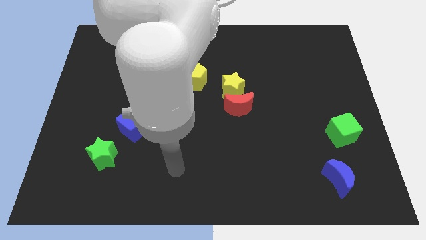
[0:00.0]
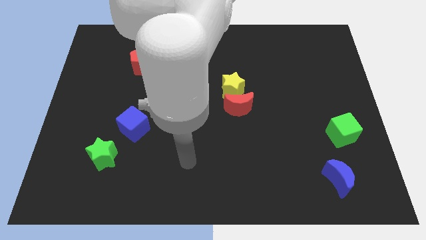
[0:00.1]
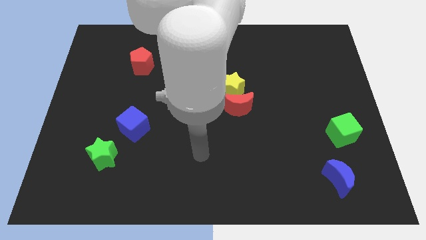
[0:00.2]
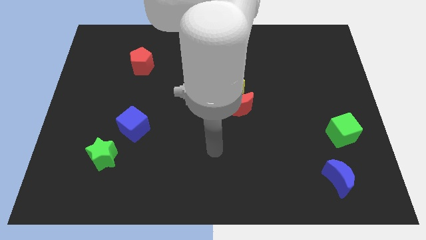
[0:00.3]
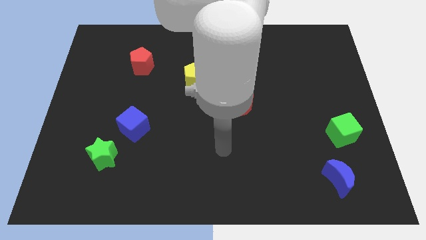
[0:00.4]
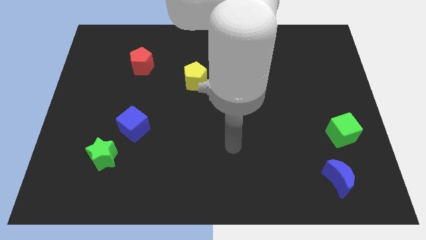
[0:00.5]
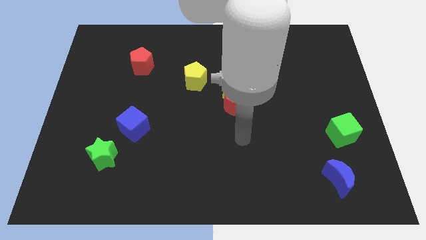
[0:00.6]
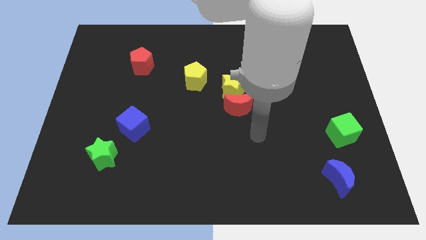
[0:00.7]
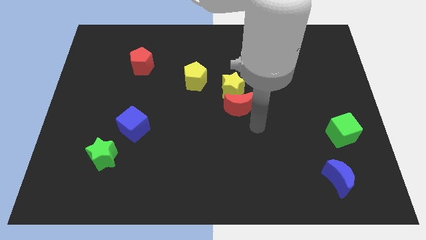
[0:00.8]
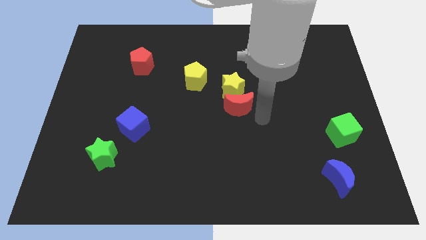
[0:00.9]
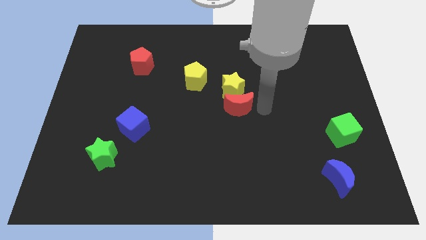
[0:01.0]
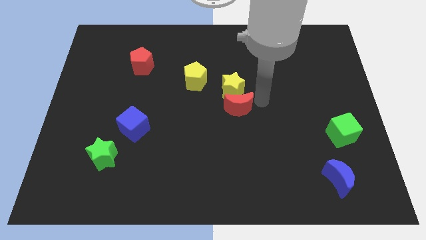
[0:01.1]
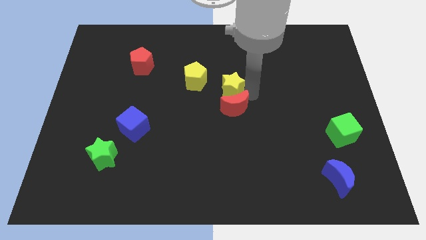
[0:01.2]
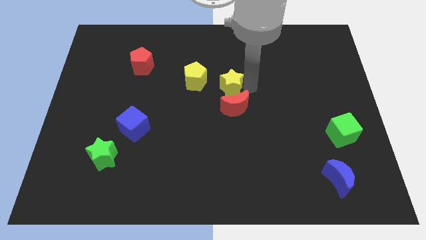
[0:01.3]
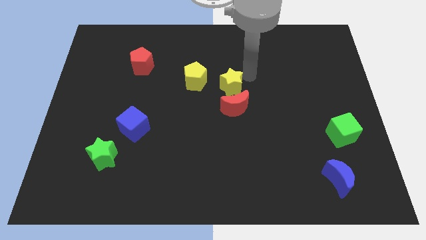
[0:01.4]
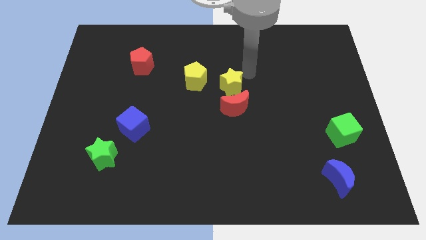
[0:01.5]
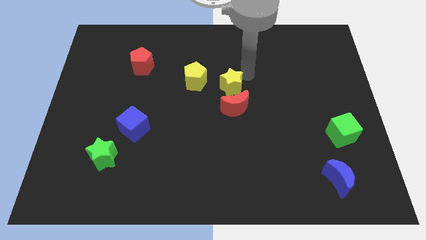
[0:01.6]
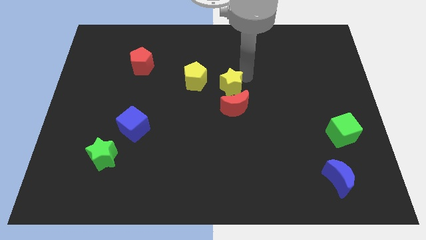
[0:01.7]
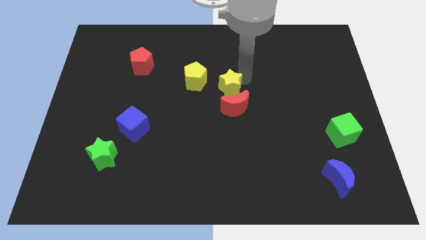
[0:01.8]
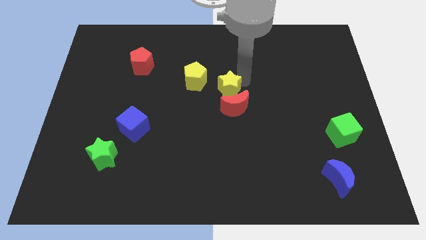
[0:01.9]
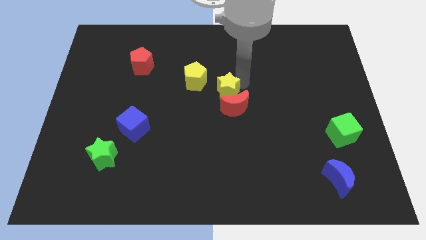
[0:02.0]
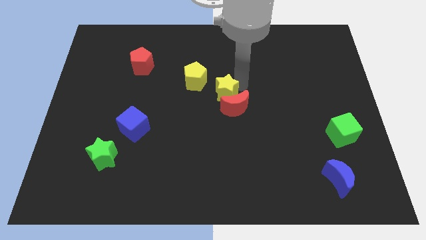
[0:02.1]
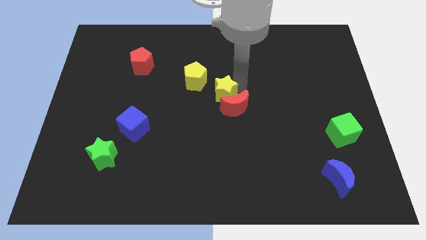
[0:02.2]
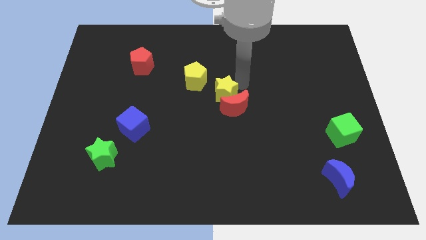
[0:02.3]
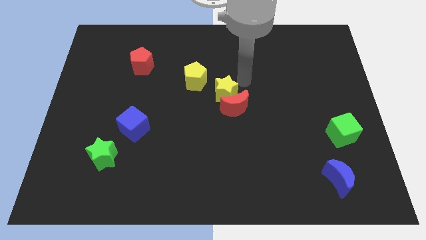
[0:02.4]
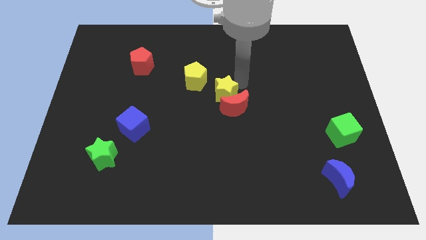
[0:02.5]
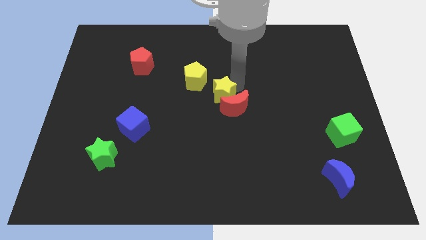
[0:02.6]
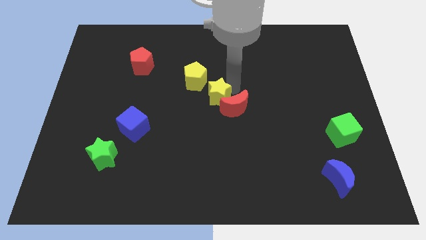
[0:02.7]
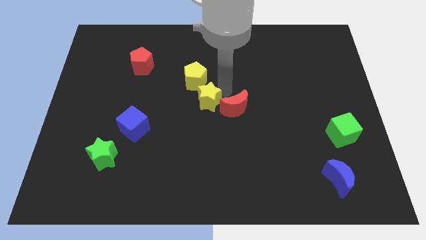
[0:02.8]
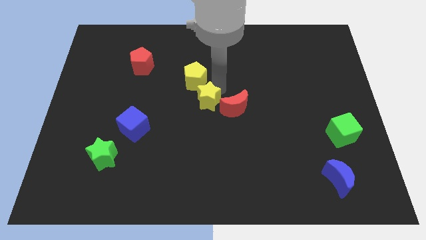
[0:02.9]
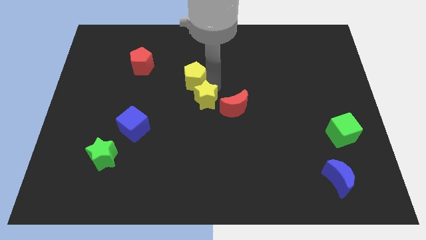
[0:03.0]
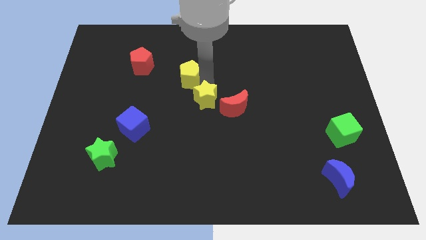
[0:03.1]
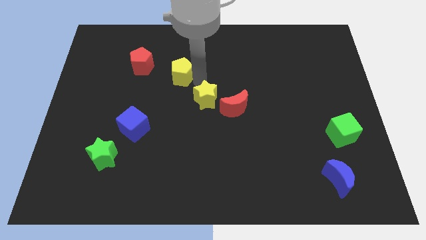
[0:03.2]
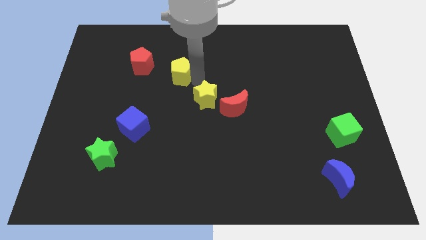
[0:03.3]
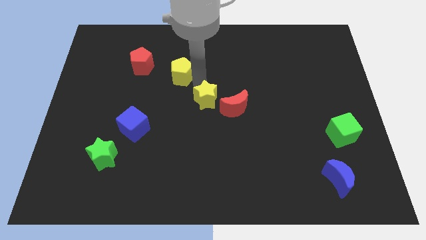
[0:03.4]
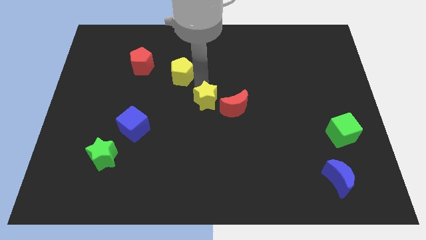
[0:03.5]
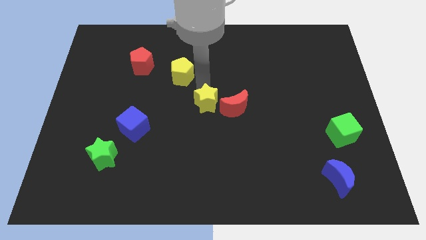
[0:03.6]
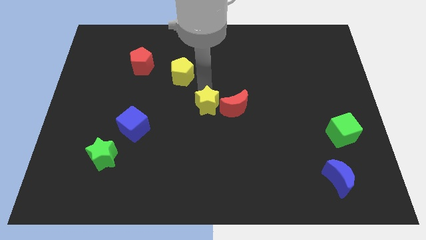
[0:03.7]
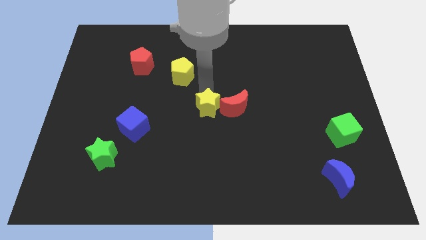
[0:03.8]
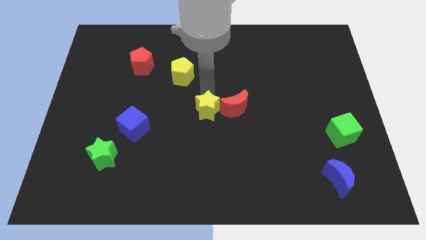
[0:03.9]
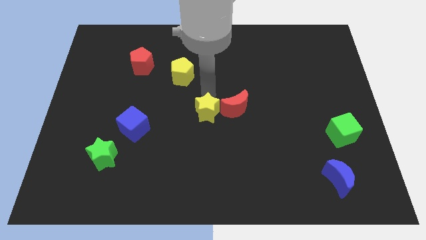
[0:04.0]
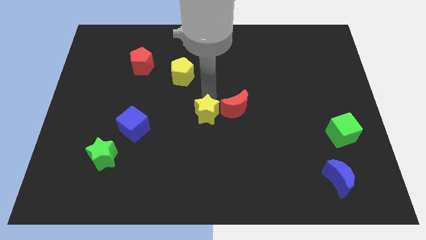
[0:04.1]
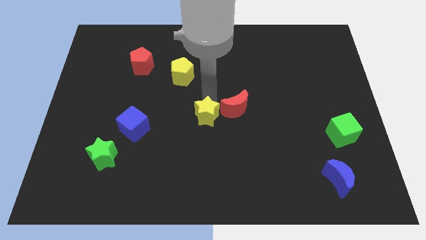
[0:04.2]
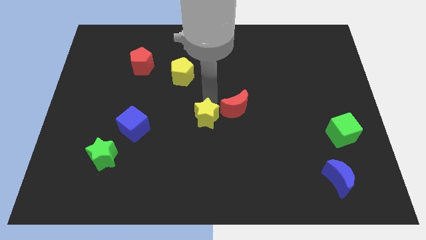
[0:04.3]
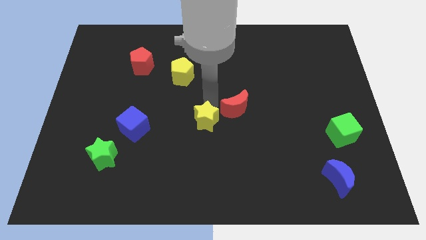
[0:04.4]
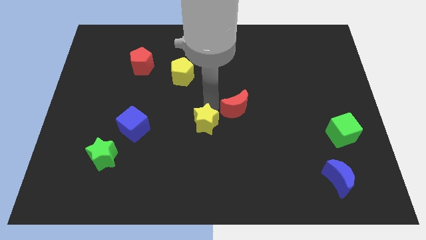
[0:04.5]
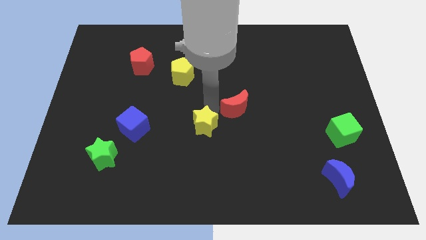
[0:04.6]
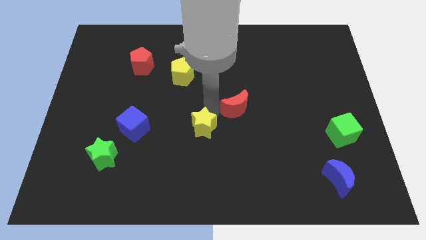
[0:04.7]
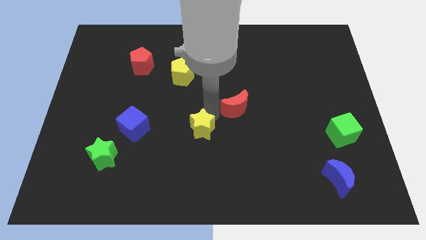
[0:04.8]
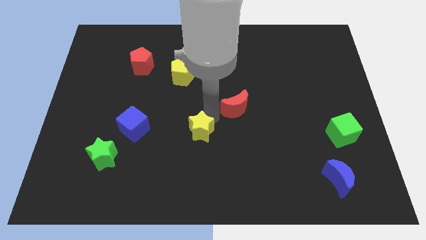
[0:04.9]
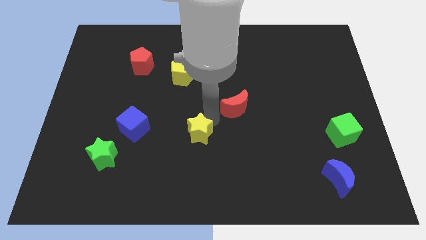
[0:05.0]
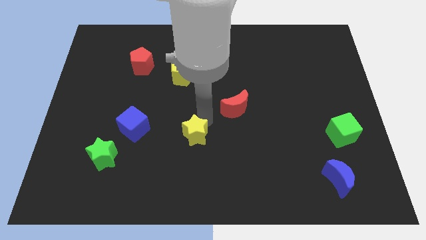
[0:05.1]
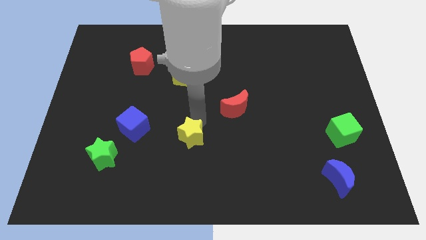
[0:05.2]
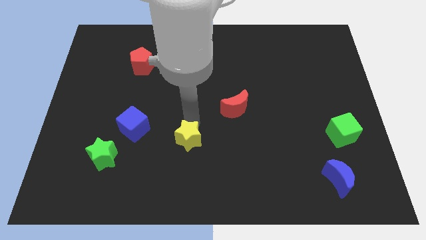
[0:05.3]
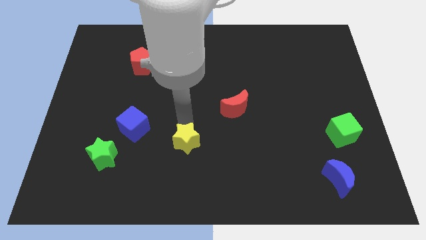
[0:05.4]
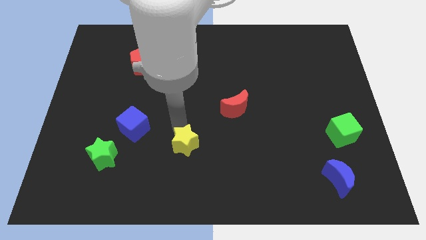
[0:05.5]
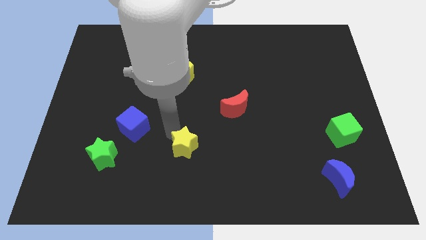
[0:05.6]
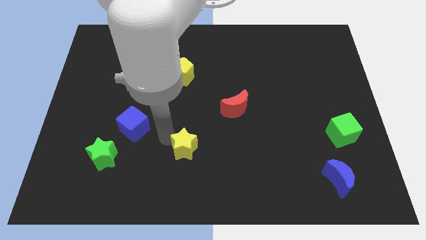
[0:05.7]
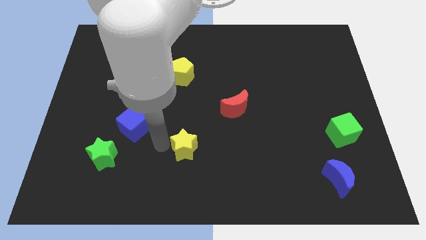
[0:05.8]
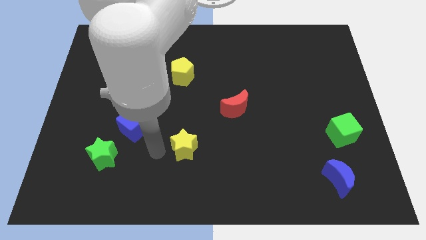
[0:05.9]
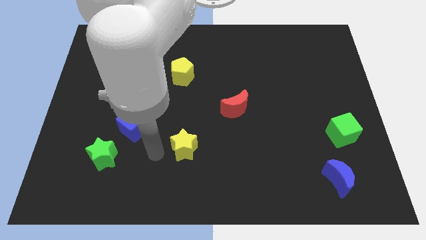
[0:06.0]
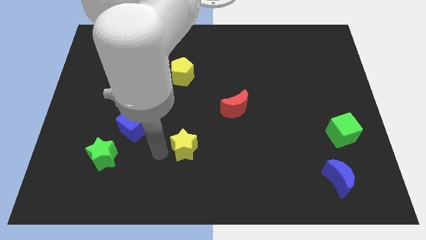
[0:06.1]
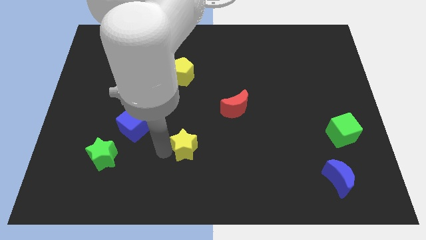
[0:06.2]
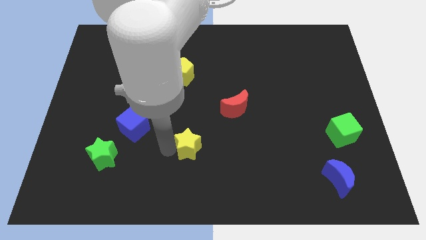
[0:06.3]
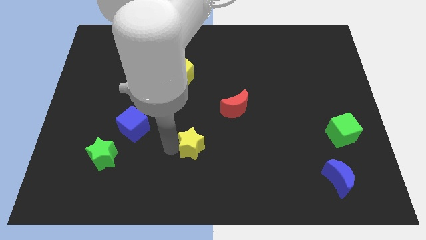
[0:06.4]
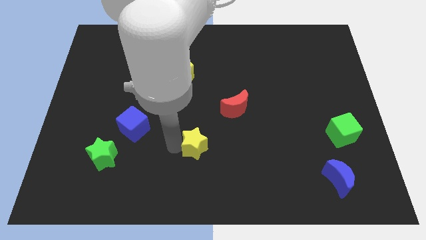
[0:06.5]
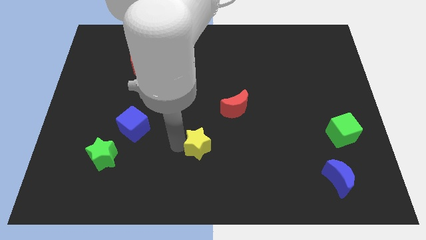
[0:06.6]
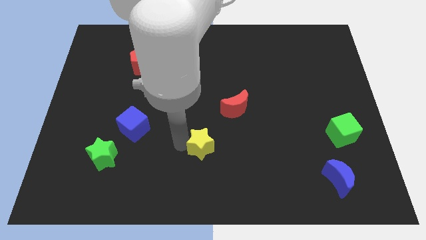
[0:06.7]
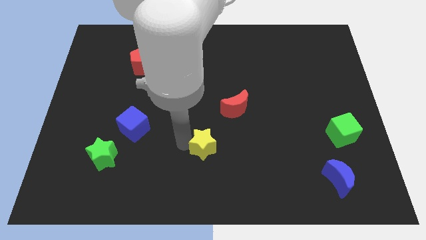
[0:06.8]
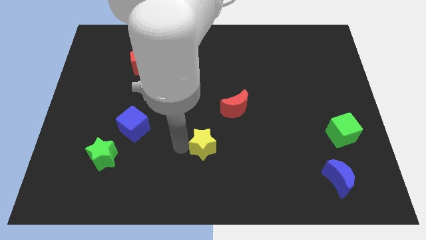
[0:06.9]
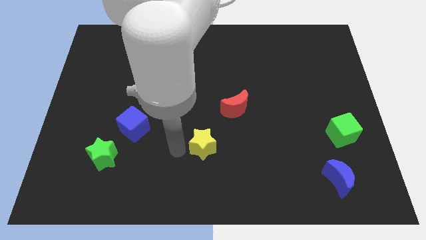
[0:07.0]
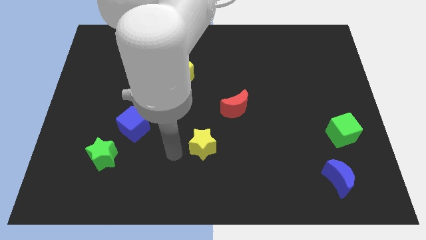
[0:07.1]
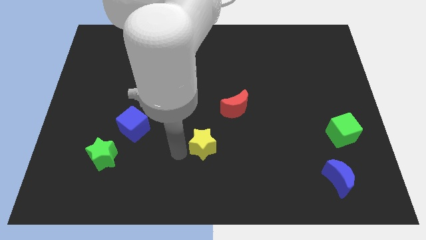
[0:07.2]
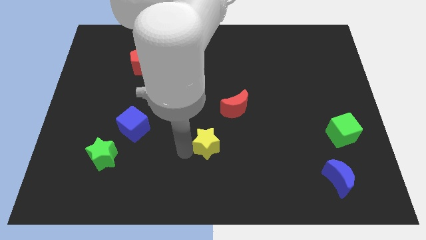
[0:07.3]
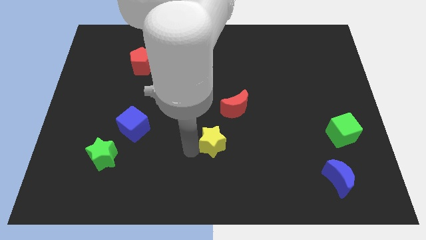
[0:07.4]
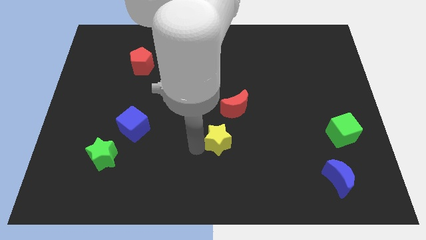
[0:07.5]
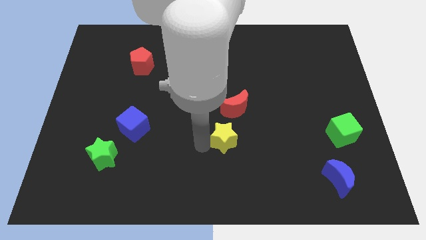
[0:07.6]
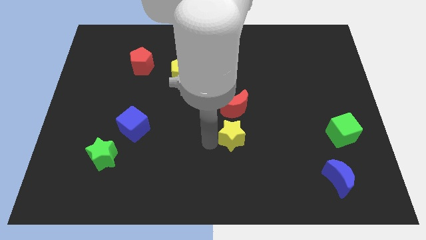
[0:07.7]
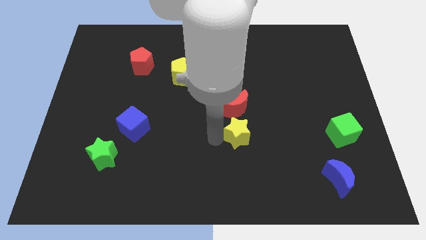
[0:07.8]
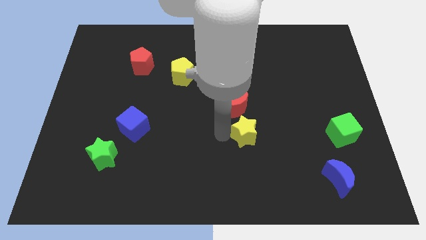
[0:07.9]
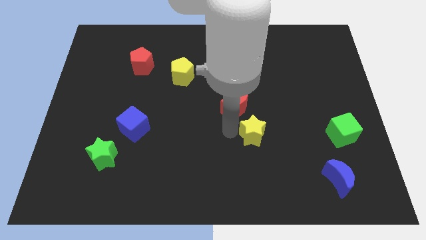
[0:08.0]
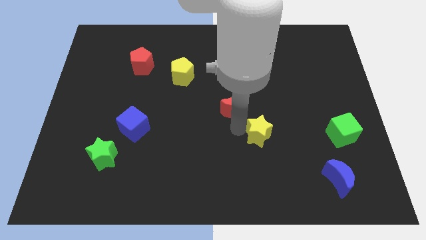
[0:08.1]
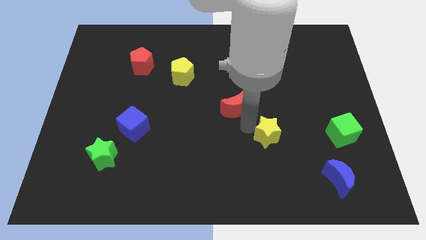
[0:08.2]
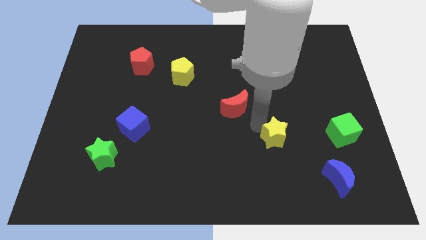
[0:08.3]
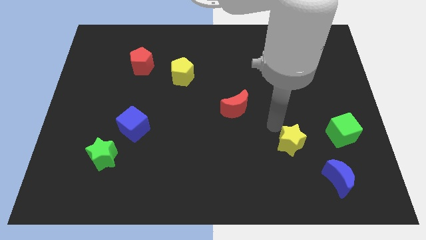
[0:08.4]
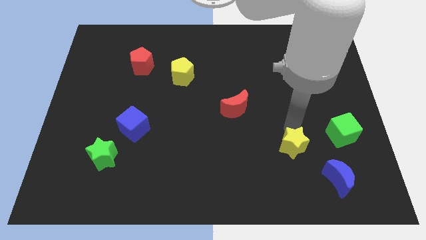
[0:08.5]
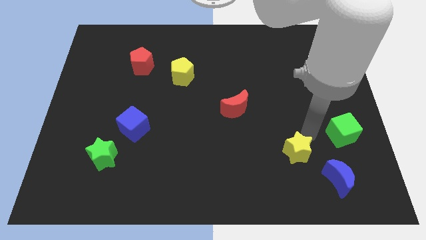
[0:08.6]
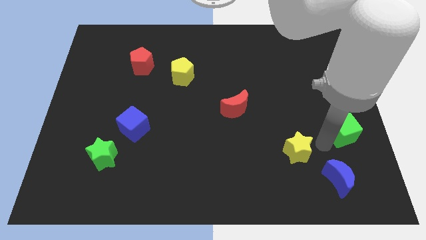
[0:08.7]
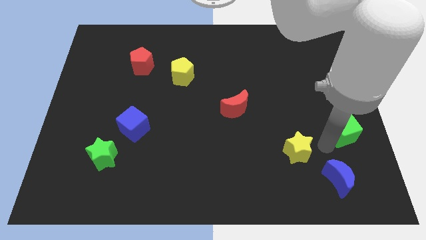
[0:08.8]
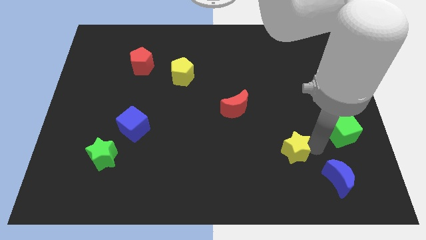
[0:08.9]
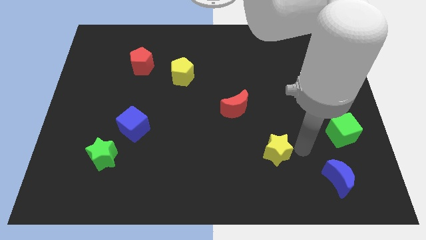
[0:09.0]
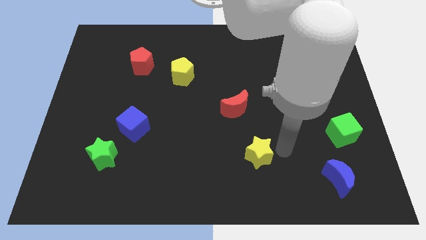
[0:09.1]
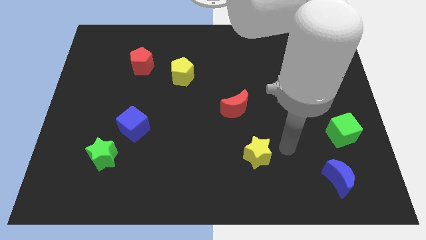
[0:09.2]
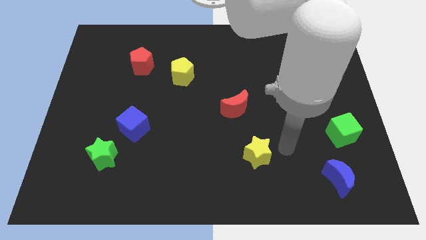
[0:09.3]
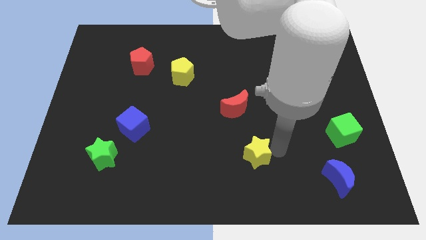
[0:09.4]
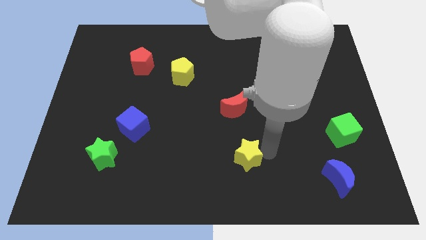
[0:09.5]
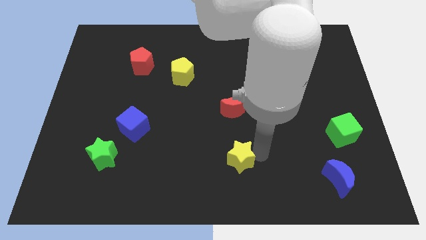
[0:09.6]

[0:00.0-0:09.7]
slide the yellow star to the bottom side
